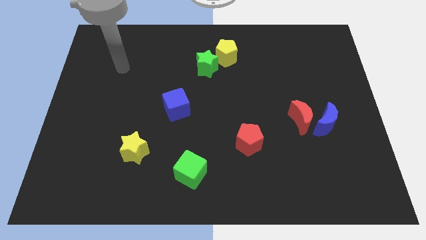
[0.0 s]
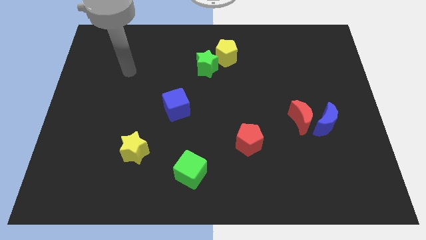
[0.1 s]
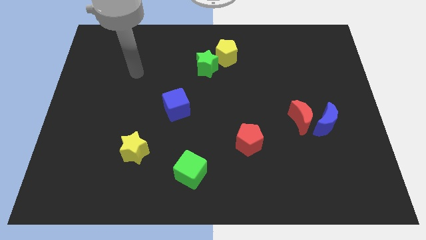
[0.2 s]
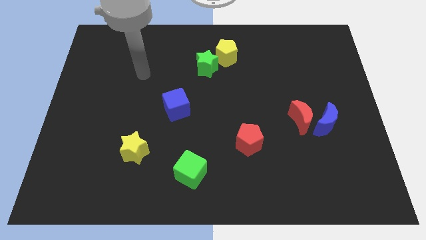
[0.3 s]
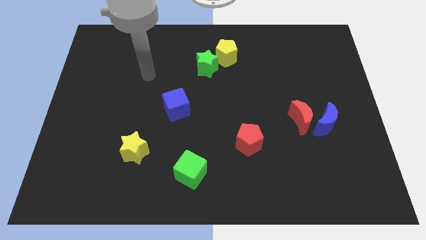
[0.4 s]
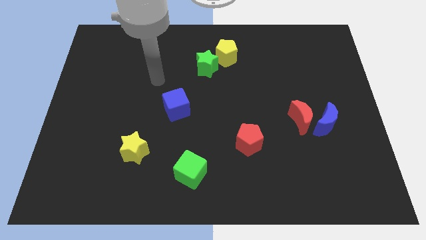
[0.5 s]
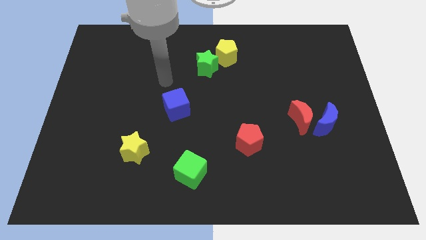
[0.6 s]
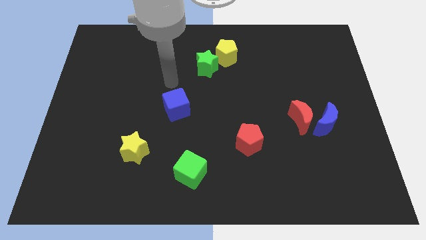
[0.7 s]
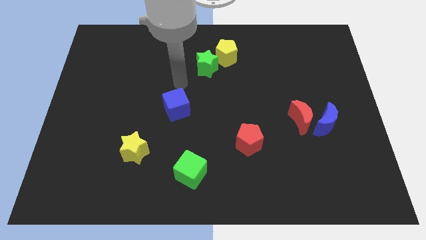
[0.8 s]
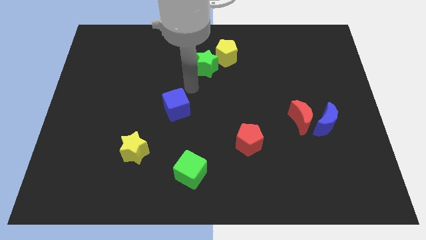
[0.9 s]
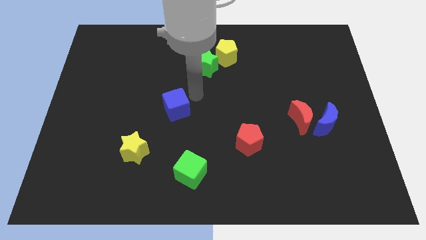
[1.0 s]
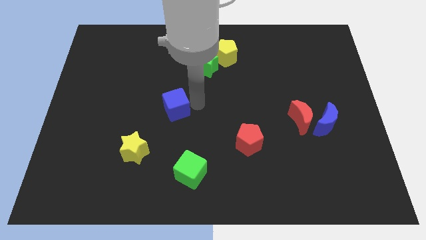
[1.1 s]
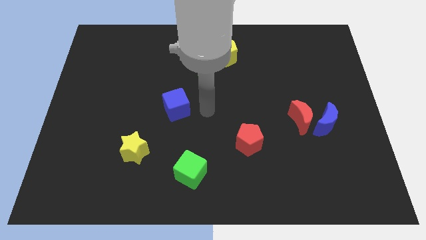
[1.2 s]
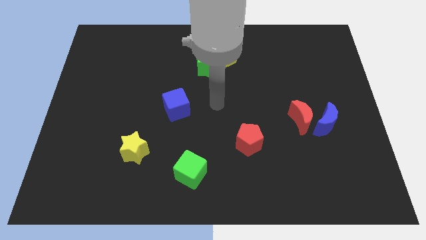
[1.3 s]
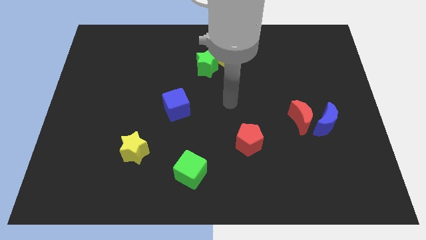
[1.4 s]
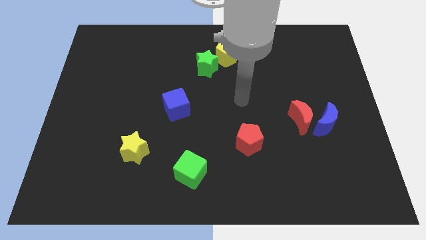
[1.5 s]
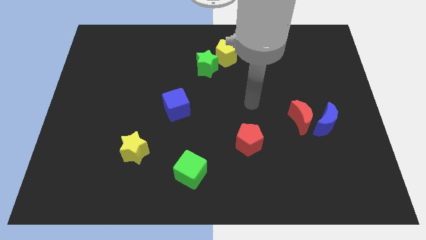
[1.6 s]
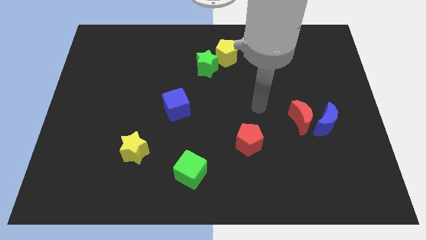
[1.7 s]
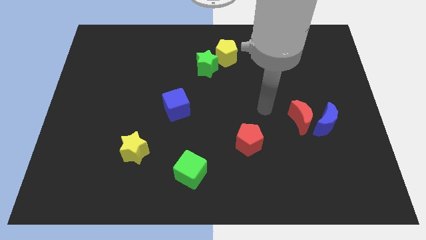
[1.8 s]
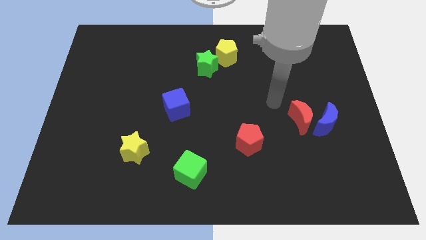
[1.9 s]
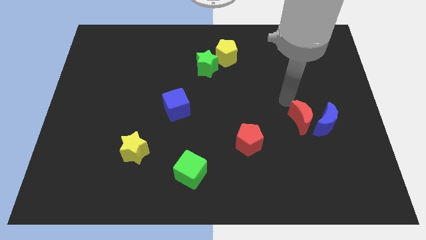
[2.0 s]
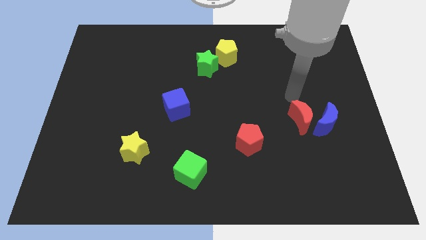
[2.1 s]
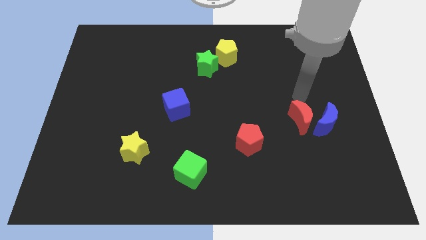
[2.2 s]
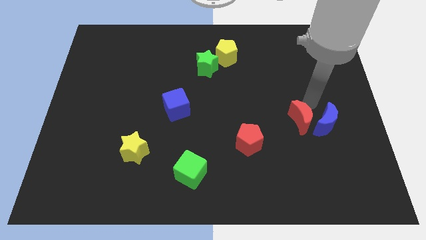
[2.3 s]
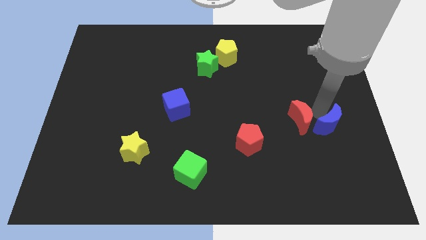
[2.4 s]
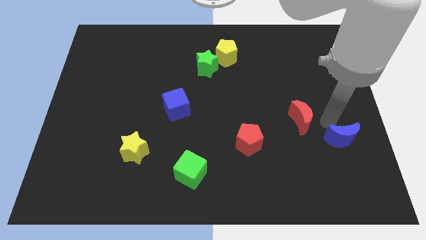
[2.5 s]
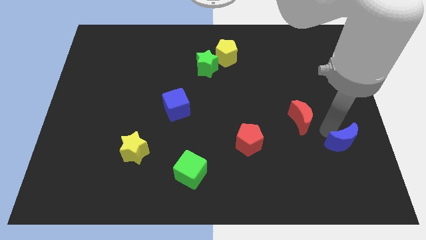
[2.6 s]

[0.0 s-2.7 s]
separate the red moon from the blue moon

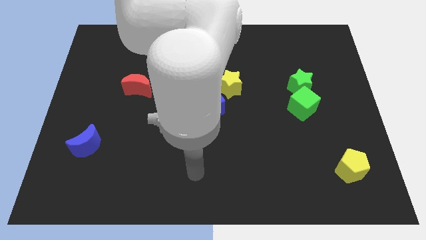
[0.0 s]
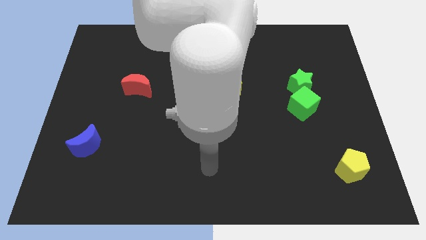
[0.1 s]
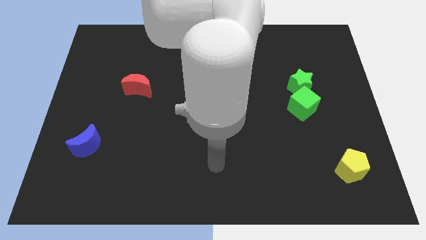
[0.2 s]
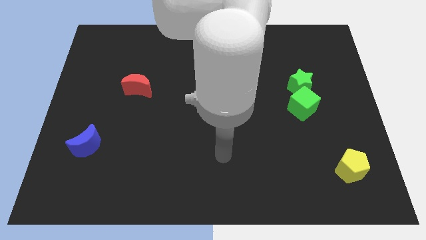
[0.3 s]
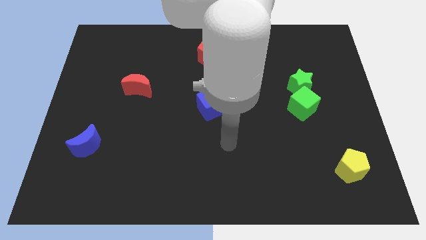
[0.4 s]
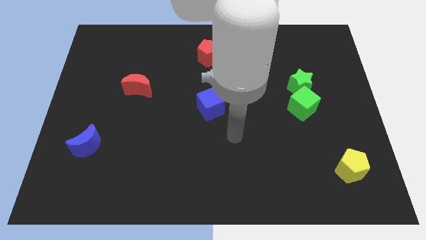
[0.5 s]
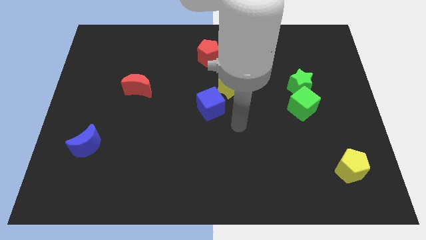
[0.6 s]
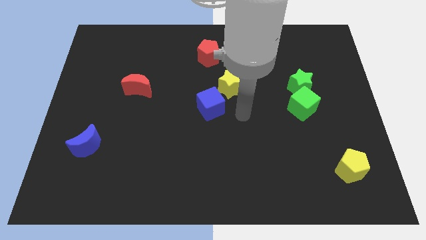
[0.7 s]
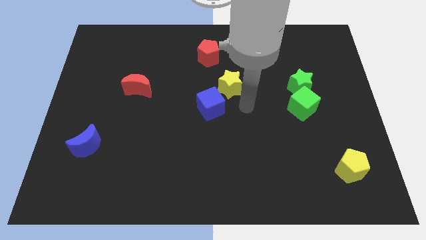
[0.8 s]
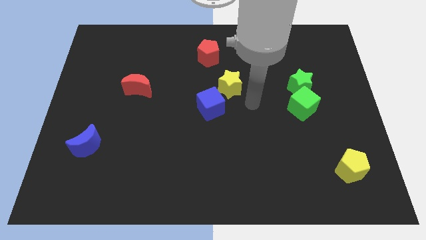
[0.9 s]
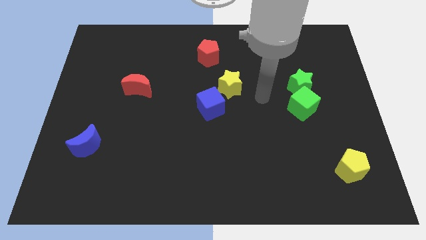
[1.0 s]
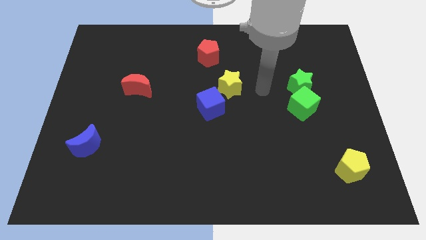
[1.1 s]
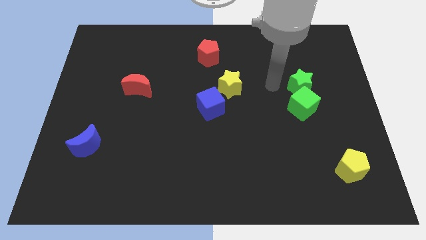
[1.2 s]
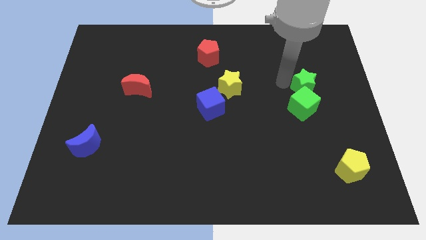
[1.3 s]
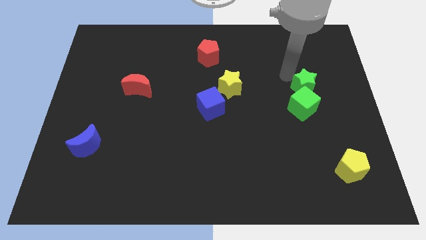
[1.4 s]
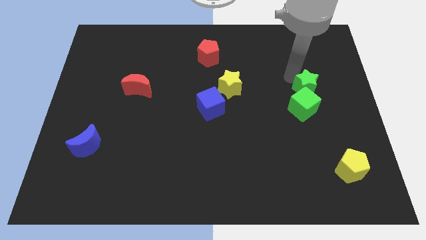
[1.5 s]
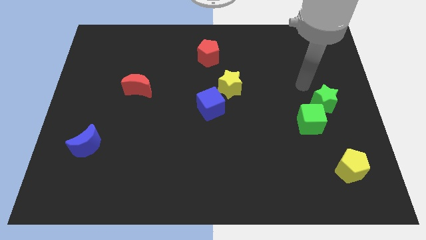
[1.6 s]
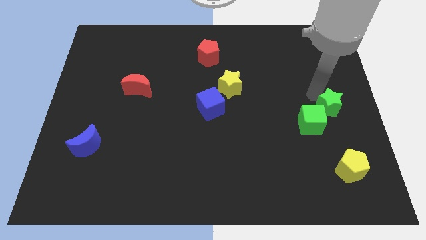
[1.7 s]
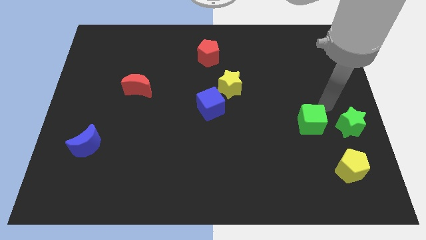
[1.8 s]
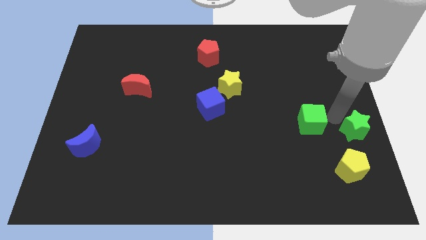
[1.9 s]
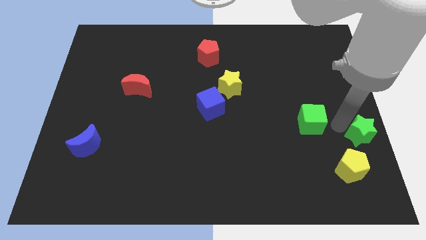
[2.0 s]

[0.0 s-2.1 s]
pull the green cube apart from the green star

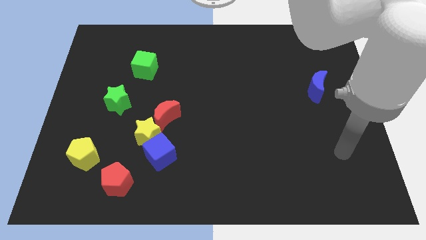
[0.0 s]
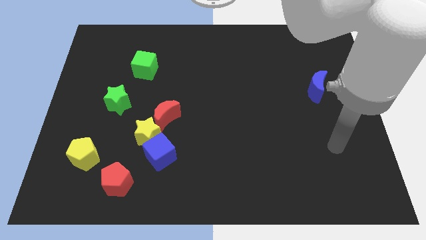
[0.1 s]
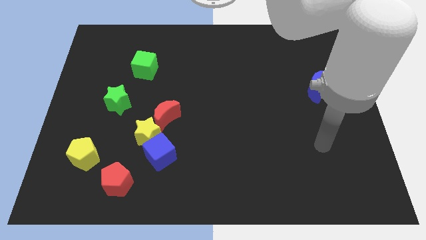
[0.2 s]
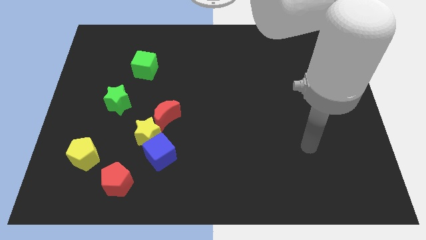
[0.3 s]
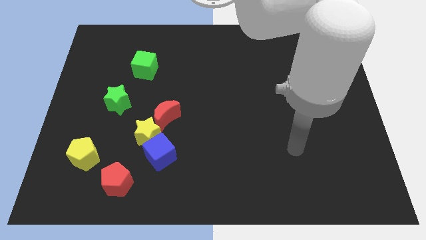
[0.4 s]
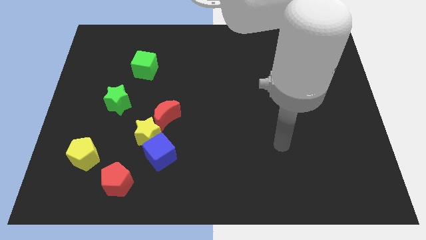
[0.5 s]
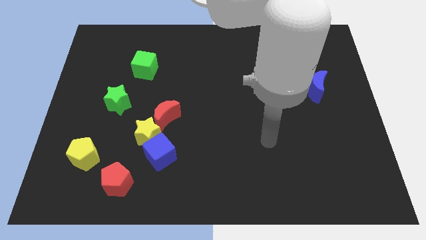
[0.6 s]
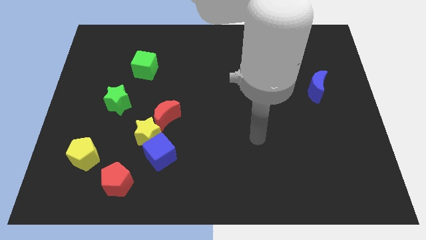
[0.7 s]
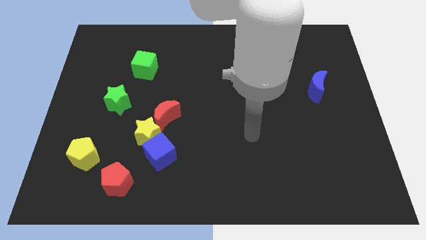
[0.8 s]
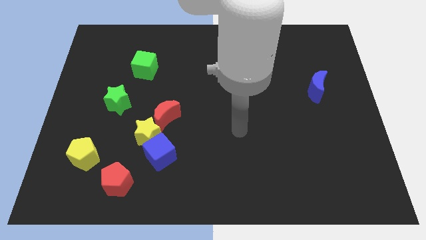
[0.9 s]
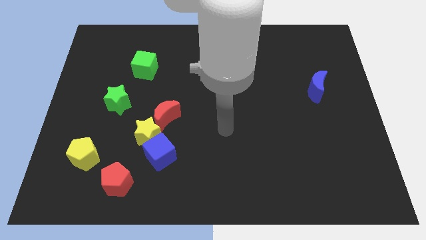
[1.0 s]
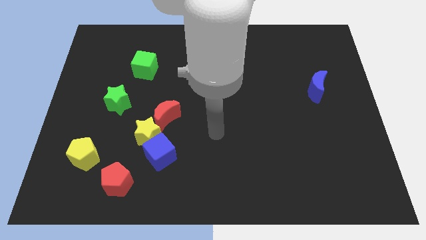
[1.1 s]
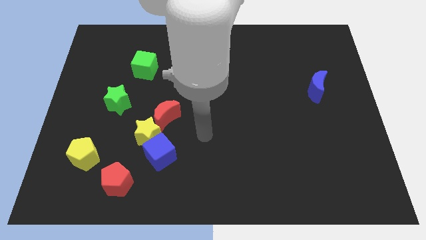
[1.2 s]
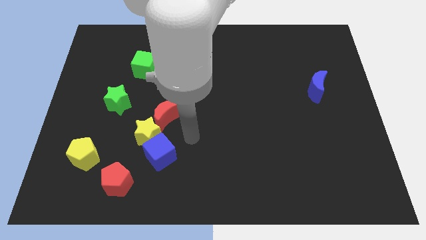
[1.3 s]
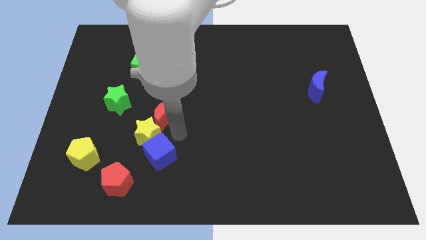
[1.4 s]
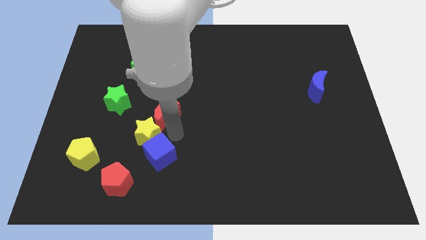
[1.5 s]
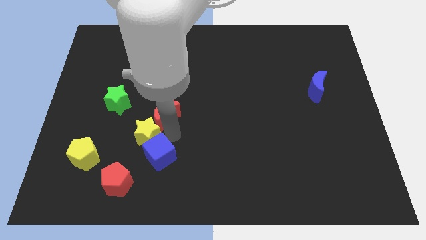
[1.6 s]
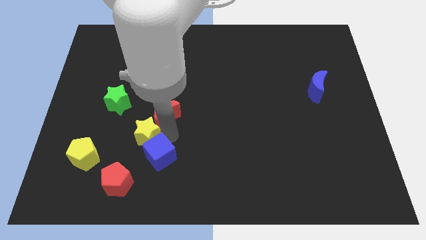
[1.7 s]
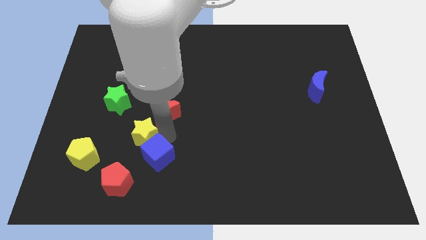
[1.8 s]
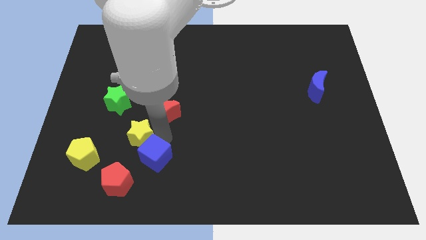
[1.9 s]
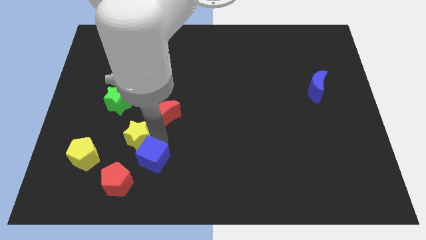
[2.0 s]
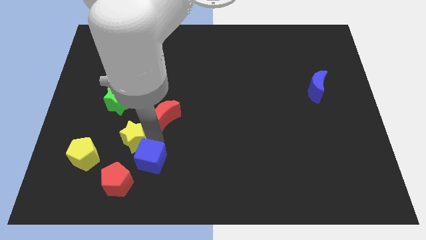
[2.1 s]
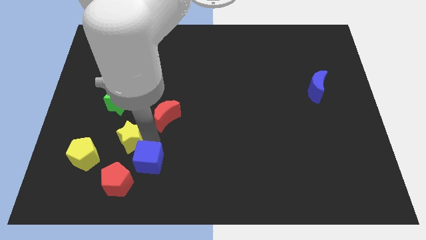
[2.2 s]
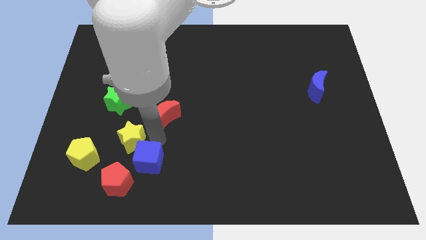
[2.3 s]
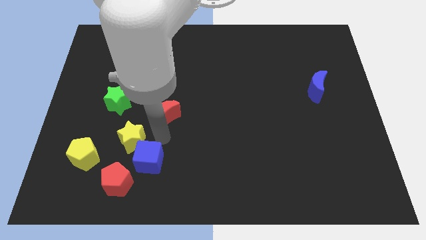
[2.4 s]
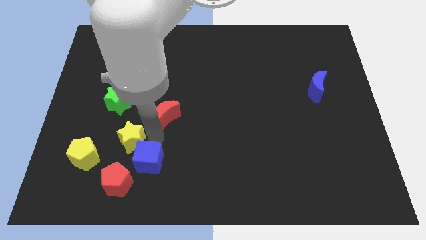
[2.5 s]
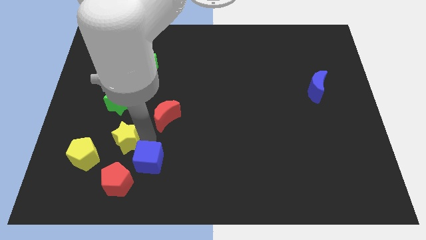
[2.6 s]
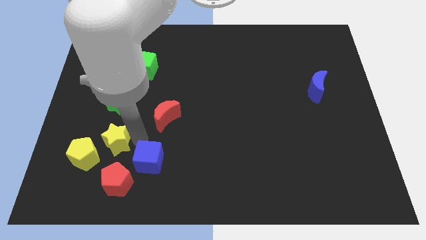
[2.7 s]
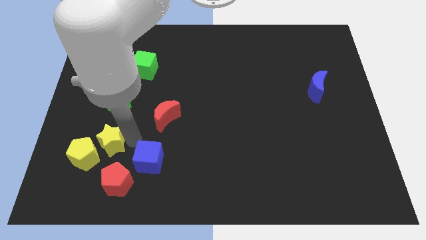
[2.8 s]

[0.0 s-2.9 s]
pull the yellow star apart from the blue cube and red moon

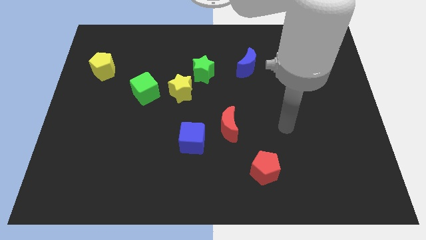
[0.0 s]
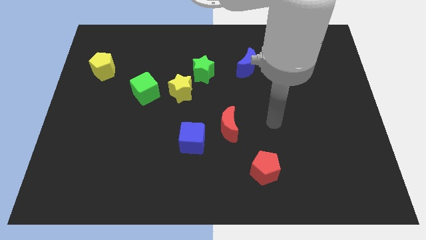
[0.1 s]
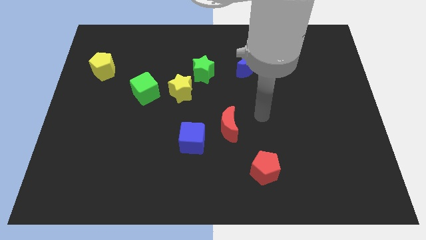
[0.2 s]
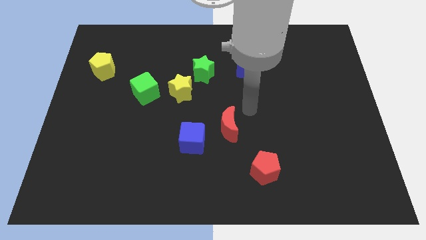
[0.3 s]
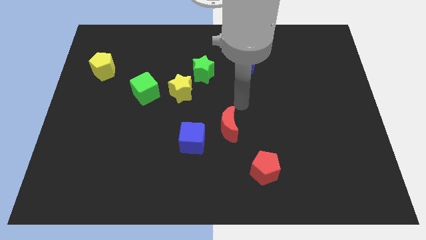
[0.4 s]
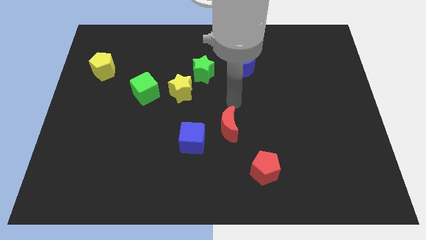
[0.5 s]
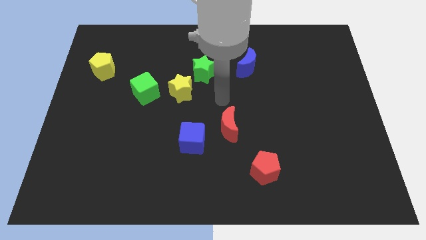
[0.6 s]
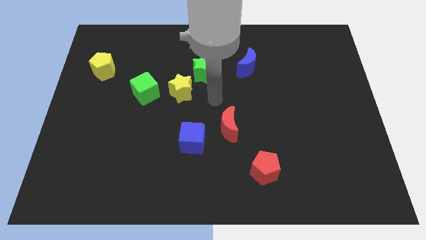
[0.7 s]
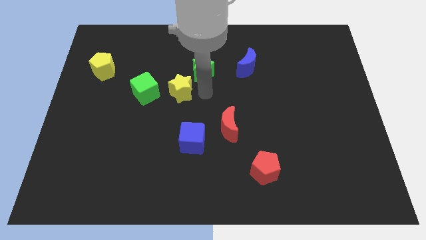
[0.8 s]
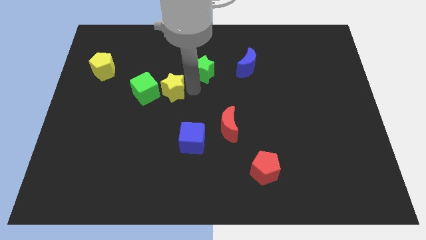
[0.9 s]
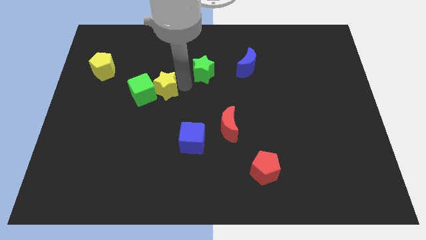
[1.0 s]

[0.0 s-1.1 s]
pull the green star apart from the yellow star

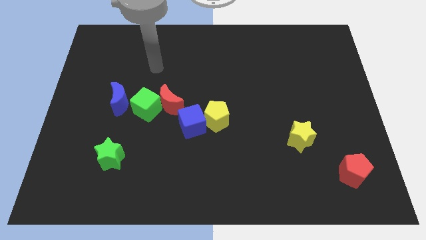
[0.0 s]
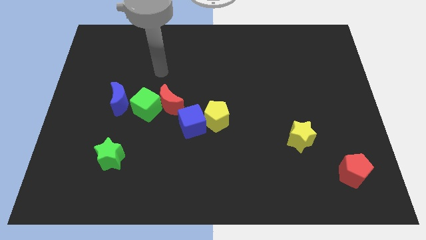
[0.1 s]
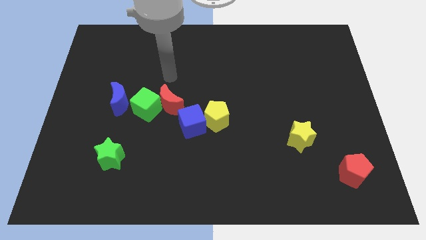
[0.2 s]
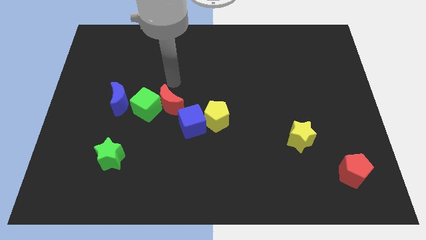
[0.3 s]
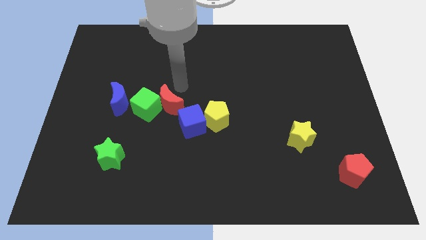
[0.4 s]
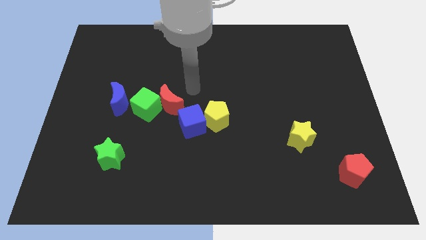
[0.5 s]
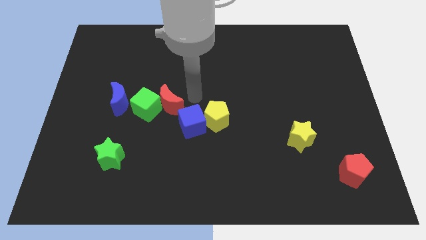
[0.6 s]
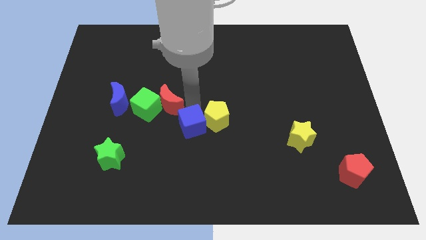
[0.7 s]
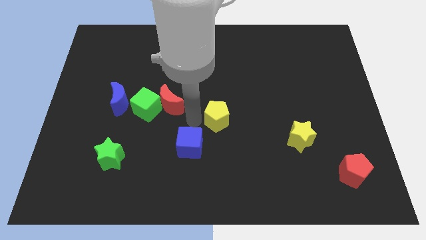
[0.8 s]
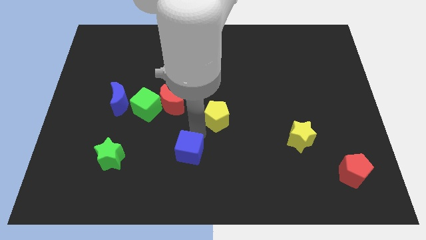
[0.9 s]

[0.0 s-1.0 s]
separate the yellow pentagon from the blue cube
